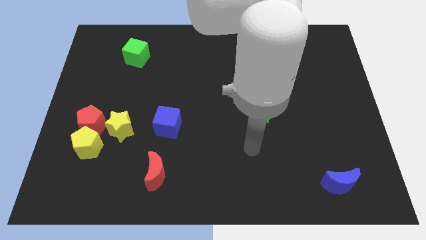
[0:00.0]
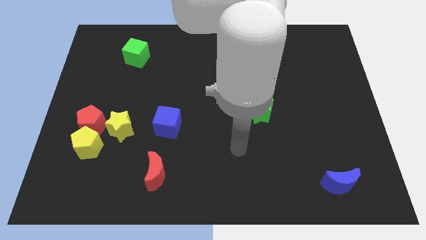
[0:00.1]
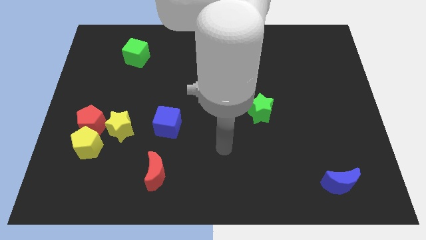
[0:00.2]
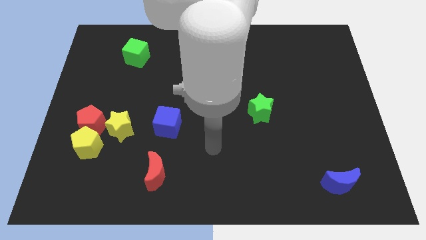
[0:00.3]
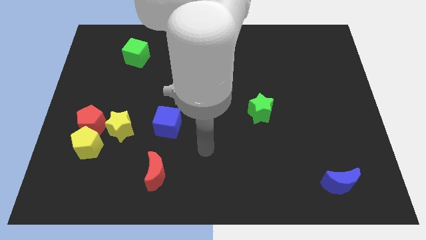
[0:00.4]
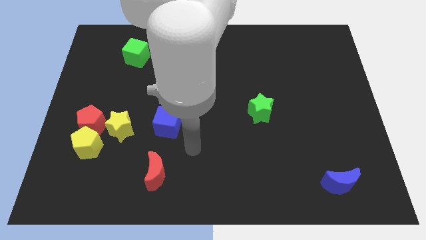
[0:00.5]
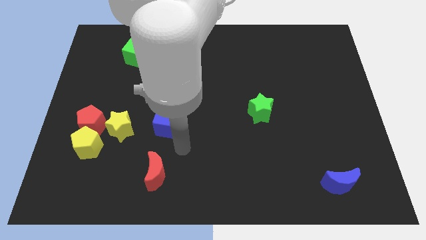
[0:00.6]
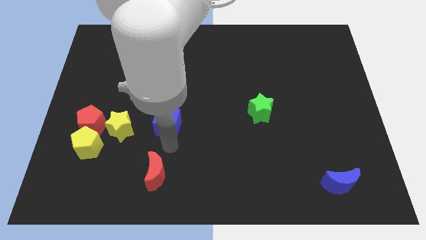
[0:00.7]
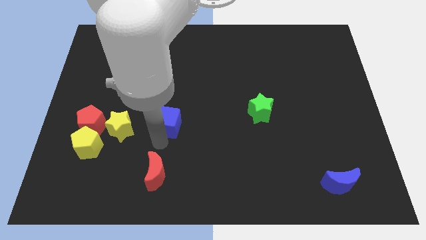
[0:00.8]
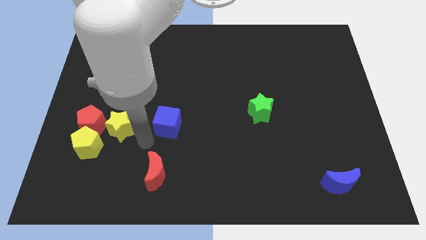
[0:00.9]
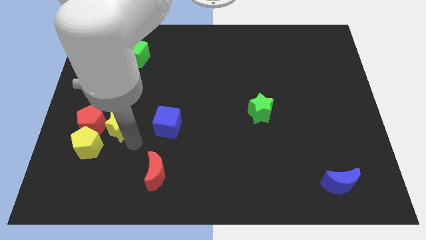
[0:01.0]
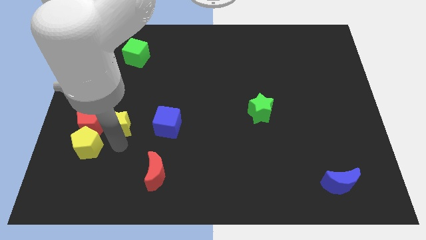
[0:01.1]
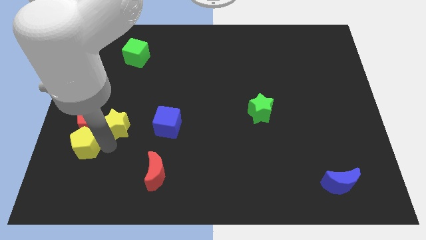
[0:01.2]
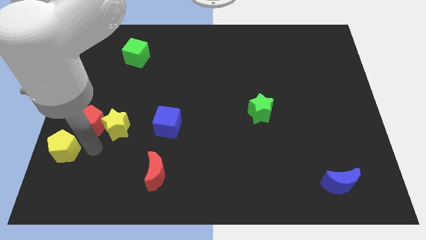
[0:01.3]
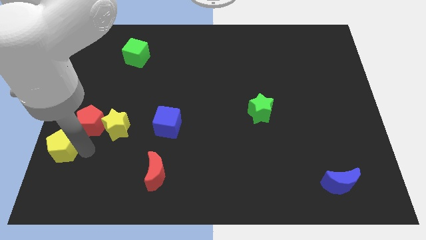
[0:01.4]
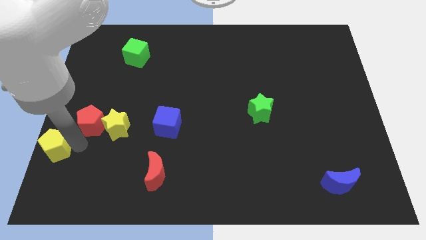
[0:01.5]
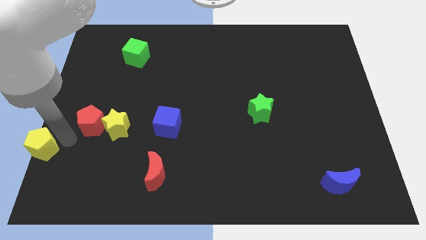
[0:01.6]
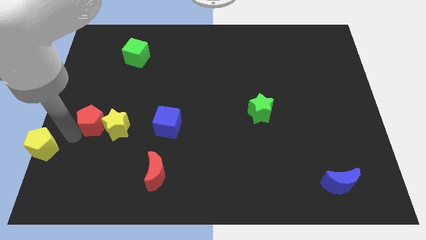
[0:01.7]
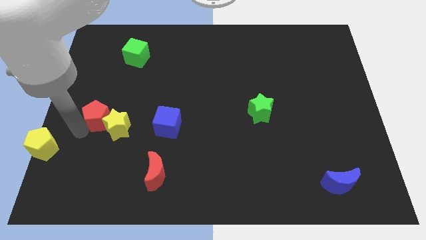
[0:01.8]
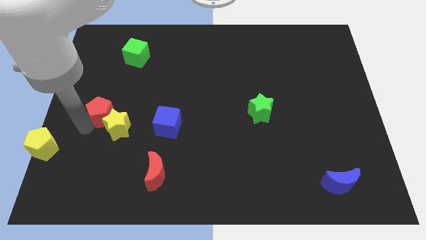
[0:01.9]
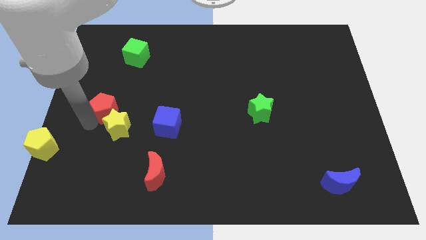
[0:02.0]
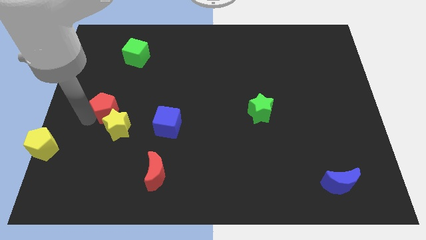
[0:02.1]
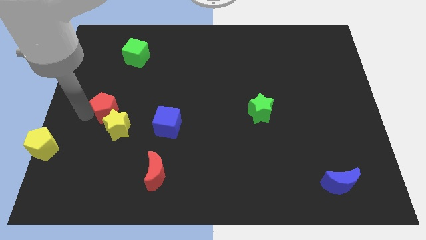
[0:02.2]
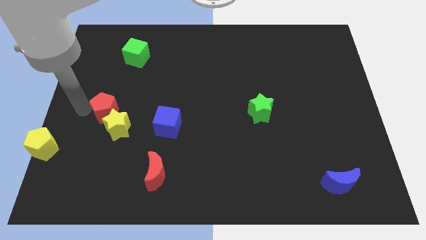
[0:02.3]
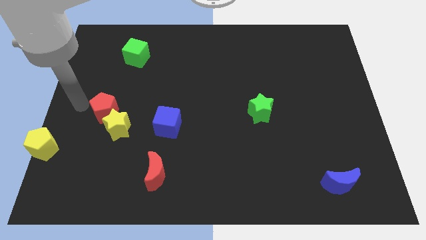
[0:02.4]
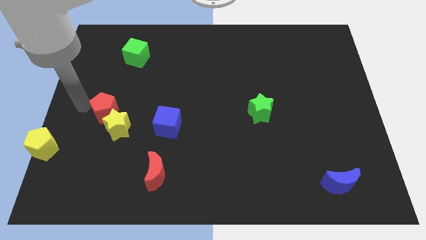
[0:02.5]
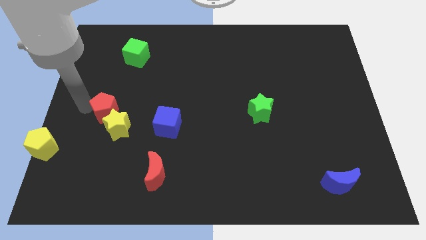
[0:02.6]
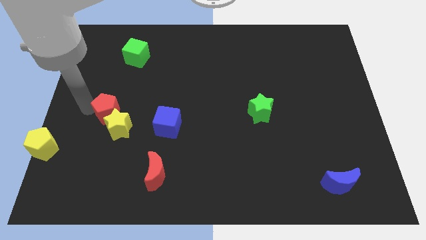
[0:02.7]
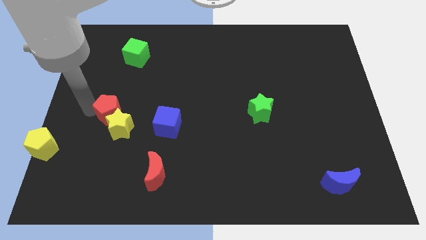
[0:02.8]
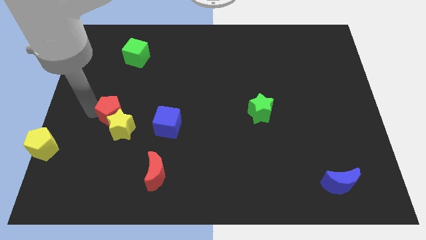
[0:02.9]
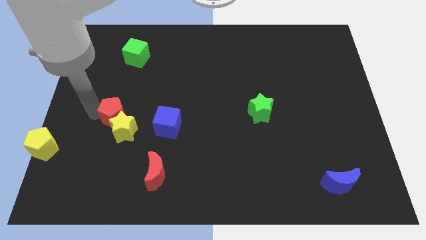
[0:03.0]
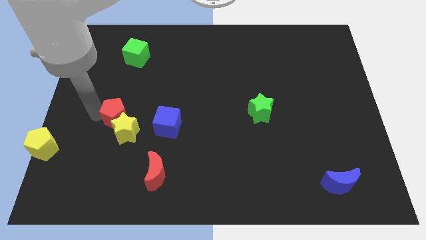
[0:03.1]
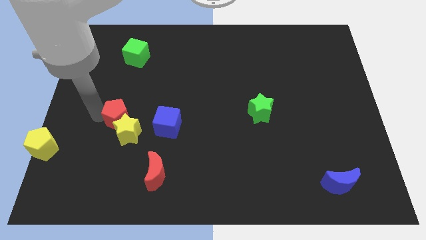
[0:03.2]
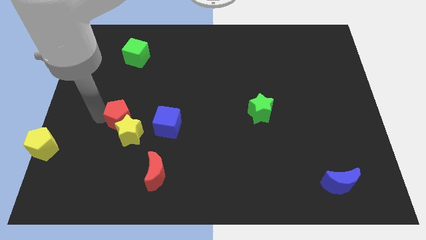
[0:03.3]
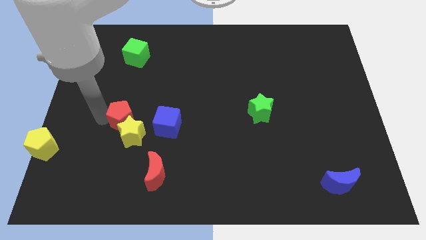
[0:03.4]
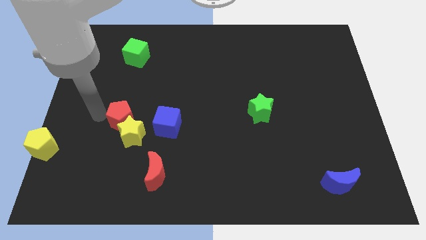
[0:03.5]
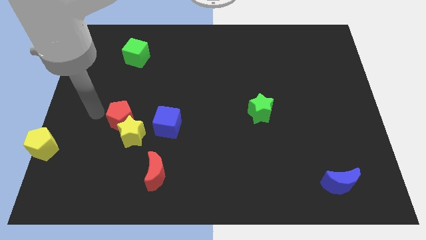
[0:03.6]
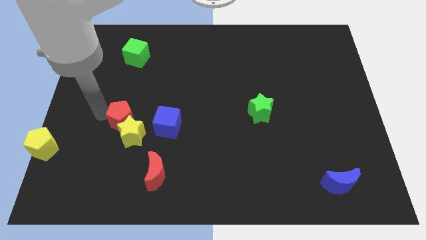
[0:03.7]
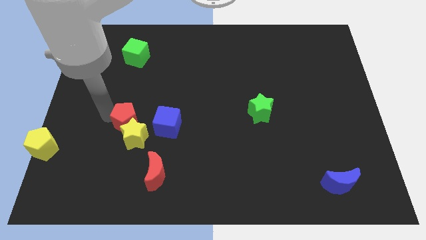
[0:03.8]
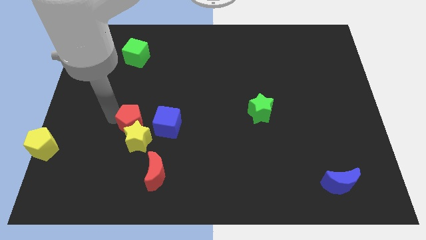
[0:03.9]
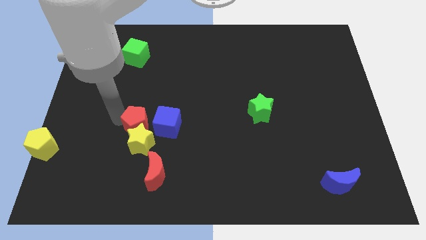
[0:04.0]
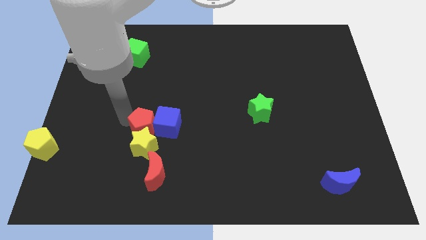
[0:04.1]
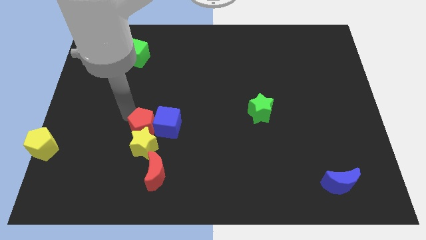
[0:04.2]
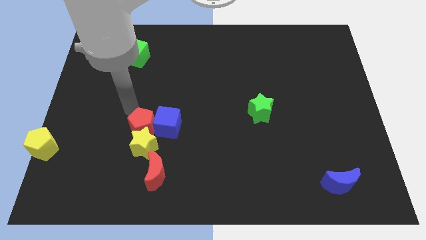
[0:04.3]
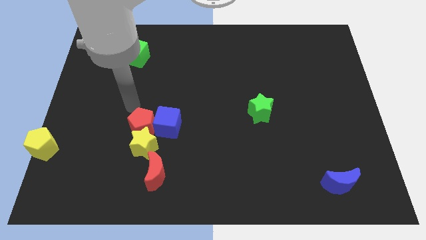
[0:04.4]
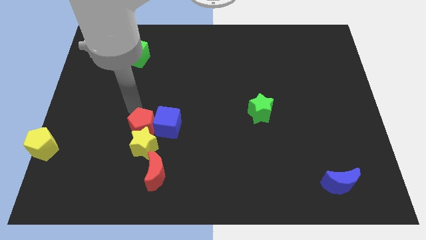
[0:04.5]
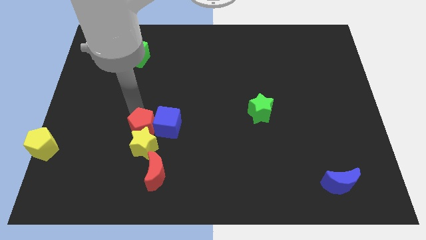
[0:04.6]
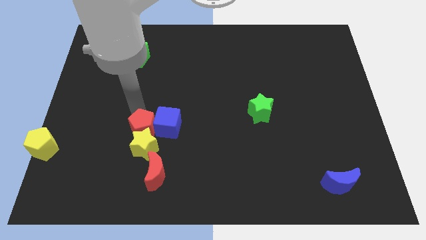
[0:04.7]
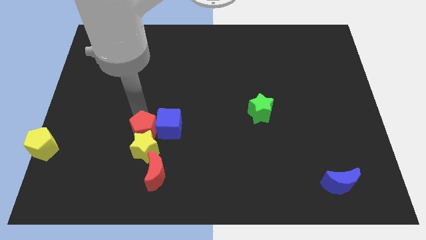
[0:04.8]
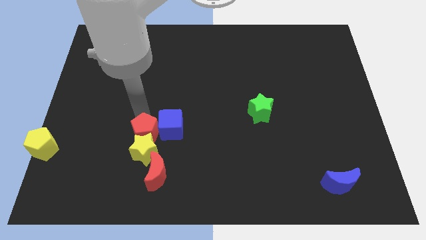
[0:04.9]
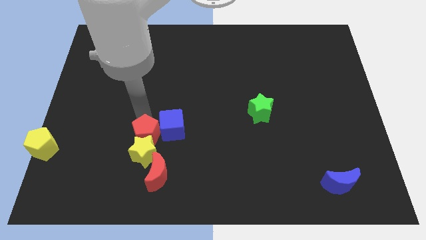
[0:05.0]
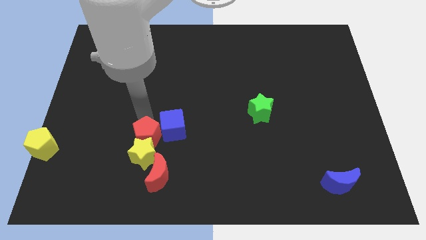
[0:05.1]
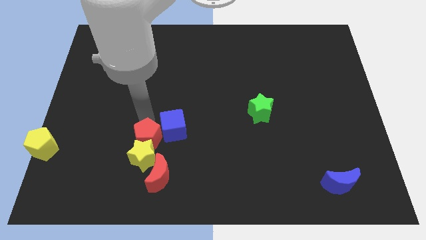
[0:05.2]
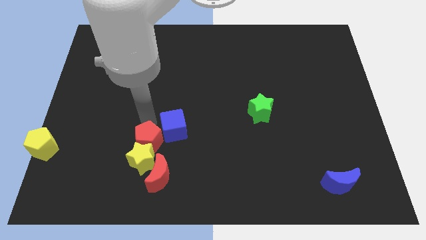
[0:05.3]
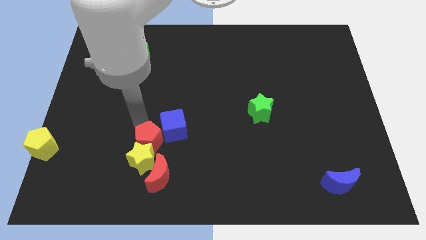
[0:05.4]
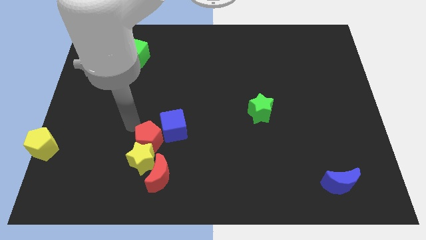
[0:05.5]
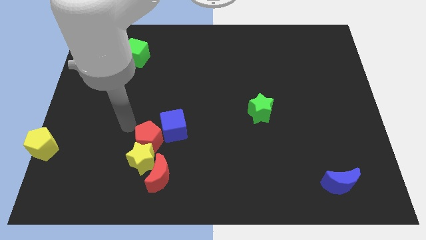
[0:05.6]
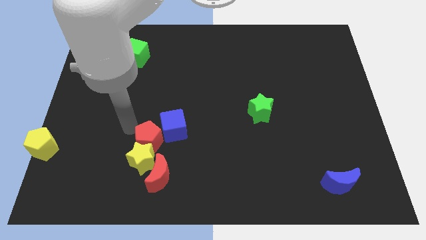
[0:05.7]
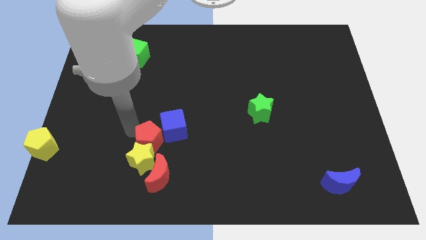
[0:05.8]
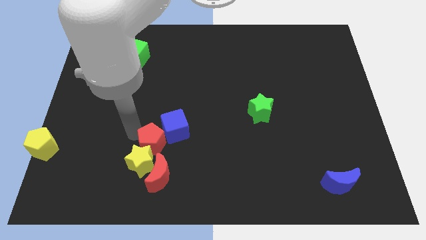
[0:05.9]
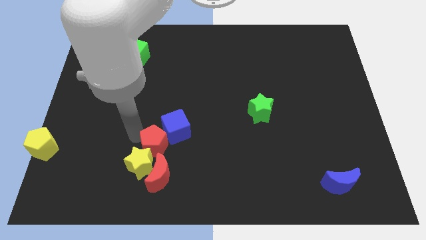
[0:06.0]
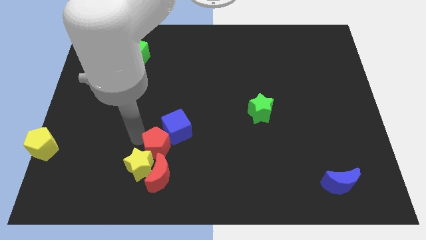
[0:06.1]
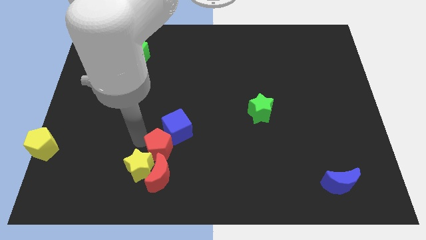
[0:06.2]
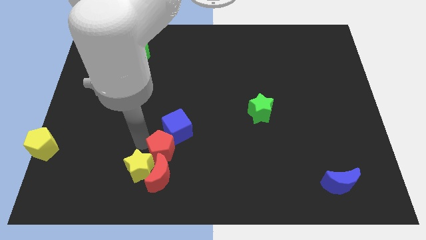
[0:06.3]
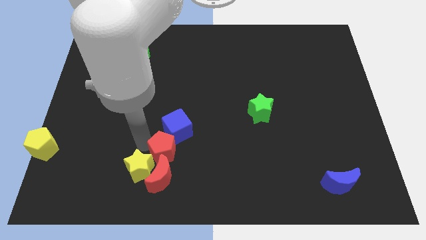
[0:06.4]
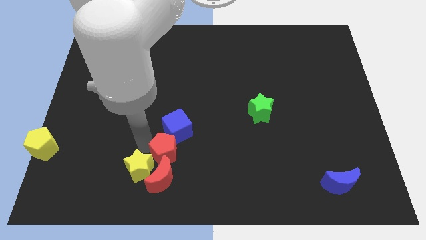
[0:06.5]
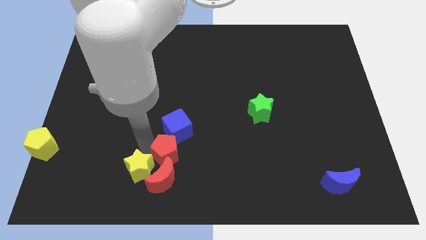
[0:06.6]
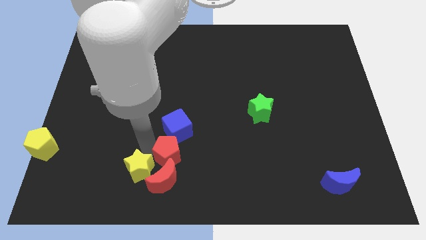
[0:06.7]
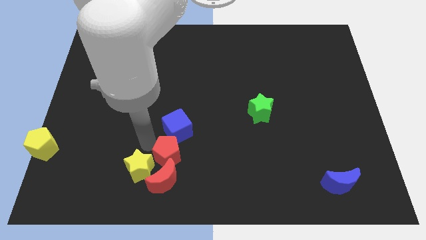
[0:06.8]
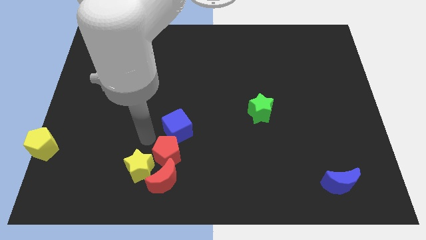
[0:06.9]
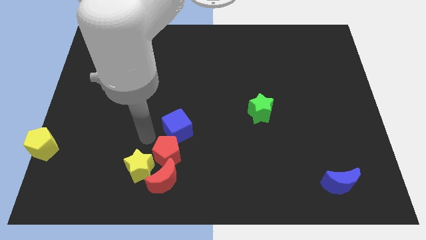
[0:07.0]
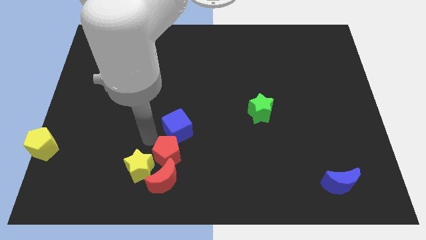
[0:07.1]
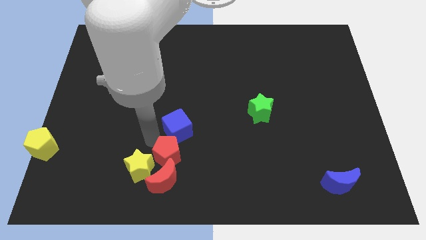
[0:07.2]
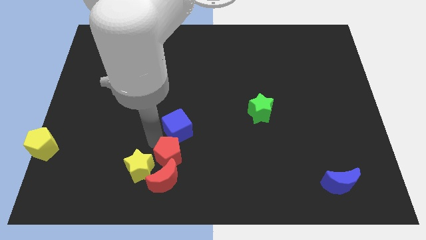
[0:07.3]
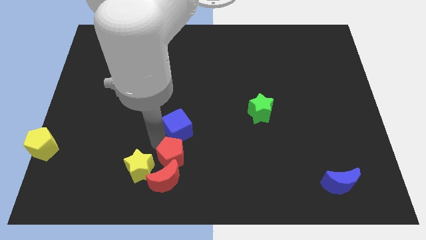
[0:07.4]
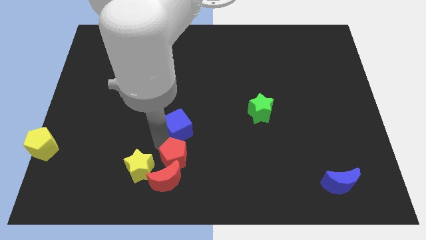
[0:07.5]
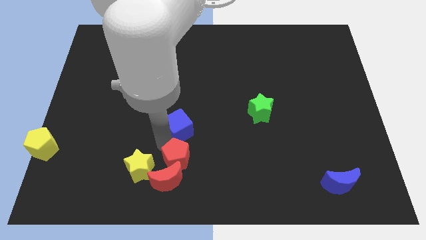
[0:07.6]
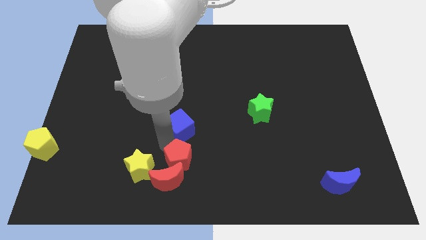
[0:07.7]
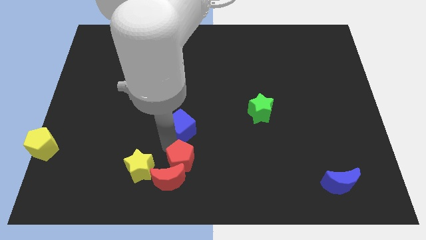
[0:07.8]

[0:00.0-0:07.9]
put the red pentagon to the bottom side
